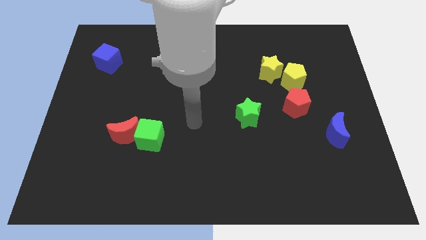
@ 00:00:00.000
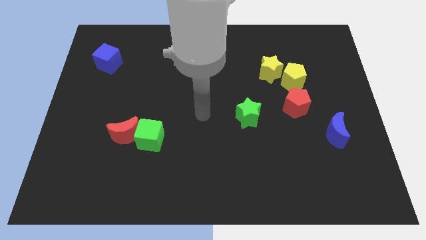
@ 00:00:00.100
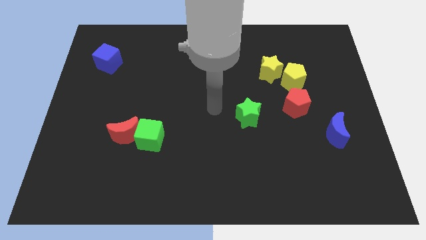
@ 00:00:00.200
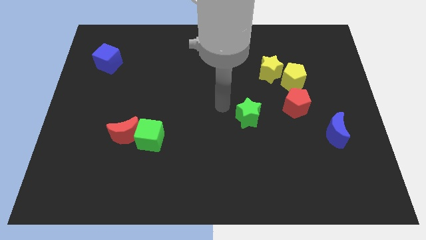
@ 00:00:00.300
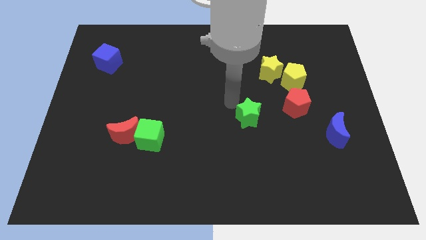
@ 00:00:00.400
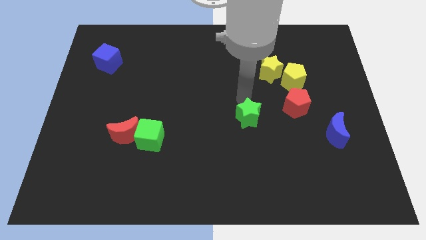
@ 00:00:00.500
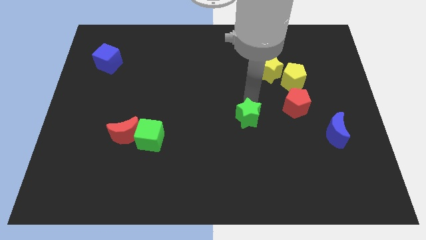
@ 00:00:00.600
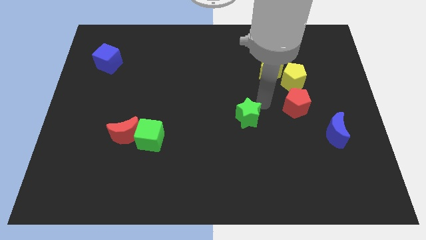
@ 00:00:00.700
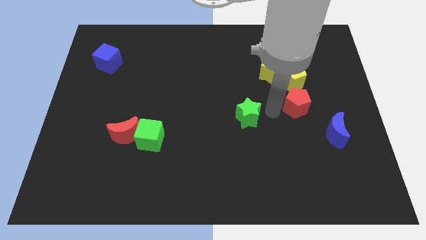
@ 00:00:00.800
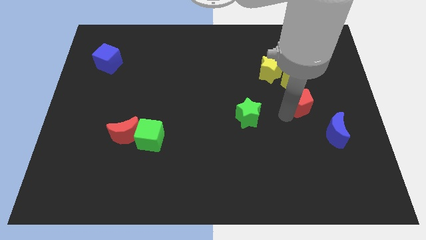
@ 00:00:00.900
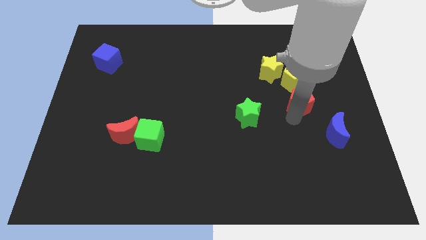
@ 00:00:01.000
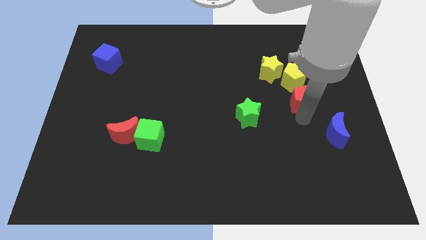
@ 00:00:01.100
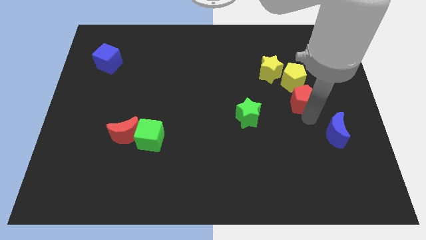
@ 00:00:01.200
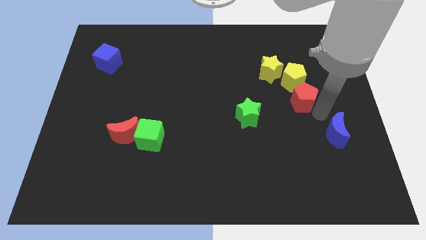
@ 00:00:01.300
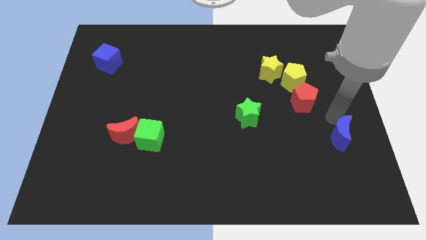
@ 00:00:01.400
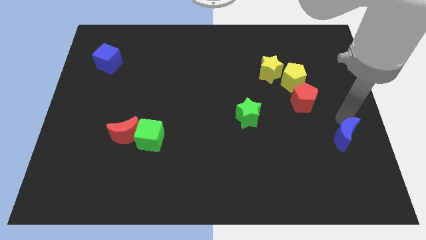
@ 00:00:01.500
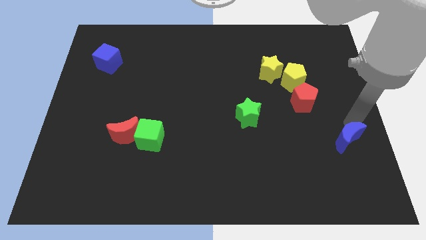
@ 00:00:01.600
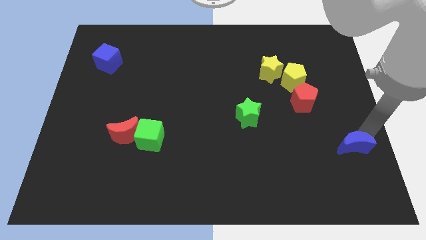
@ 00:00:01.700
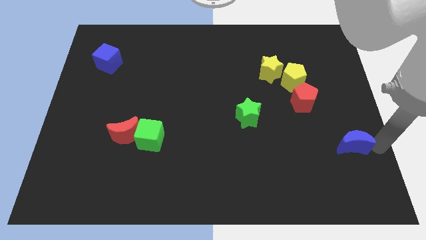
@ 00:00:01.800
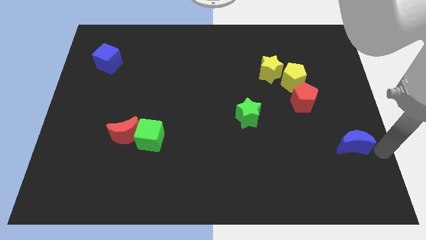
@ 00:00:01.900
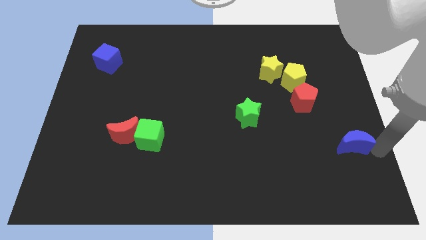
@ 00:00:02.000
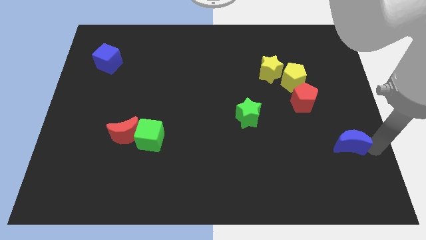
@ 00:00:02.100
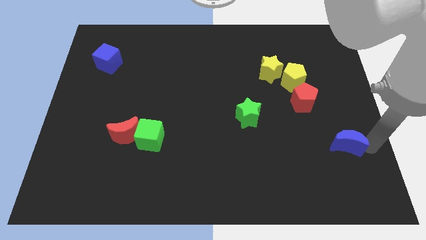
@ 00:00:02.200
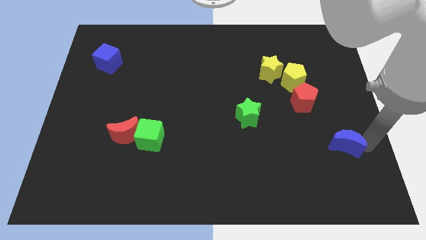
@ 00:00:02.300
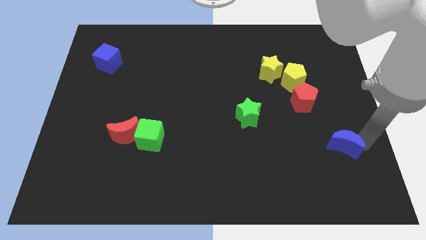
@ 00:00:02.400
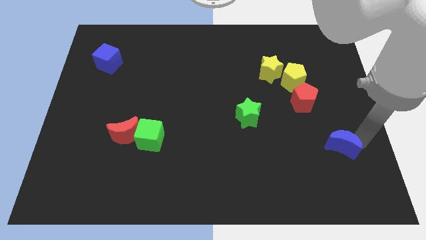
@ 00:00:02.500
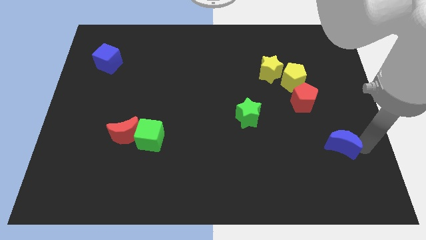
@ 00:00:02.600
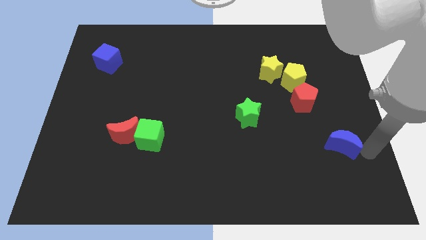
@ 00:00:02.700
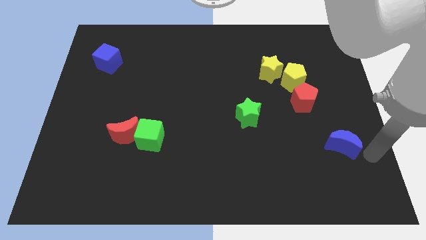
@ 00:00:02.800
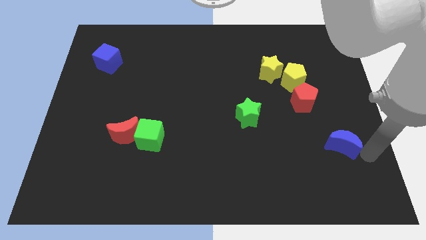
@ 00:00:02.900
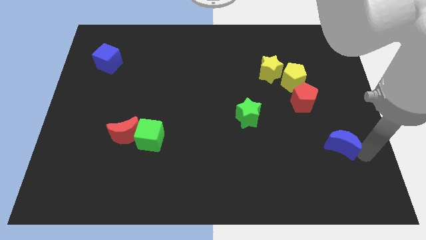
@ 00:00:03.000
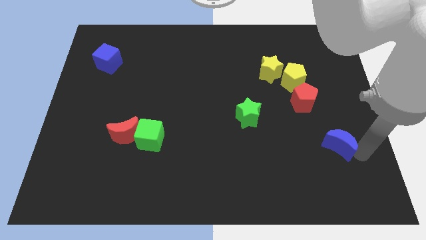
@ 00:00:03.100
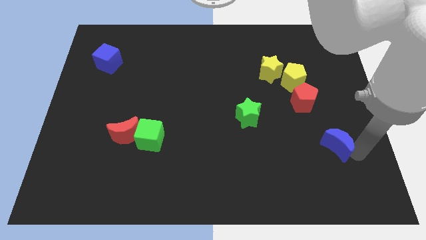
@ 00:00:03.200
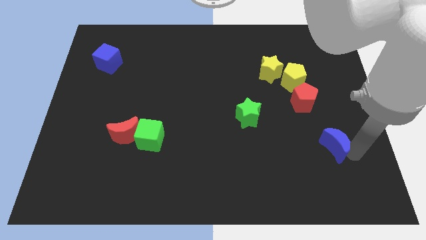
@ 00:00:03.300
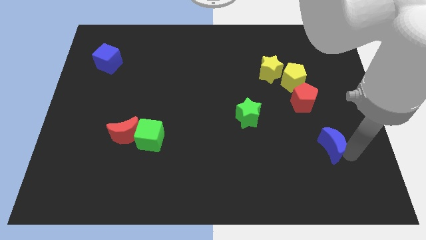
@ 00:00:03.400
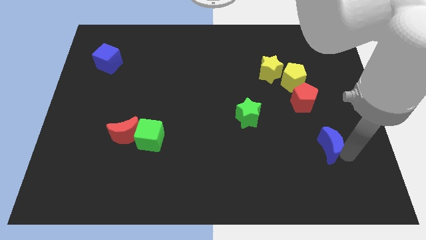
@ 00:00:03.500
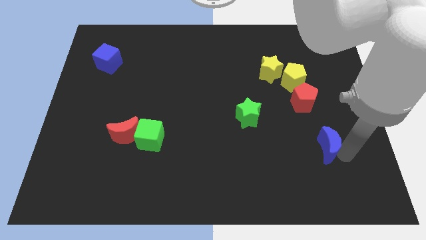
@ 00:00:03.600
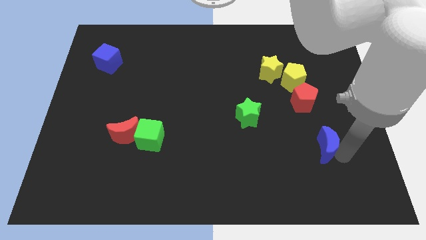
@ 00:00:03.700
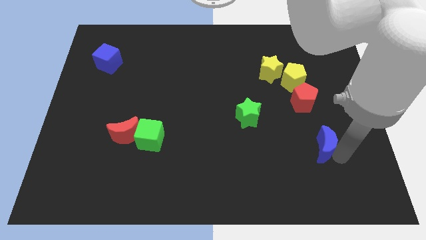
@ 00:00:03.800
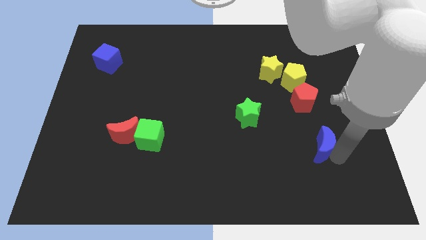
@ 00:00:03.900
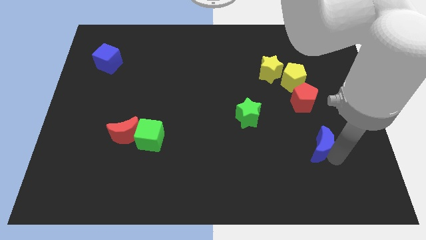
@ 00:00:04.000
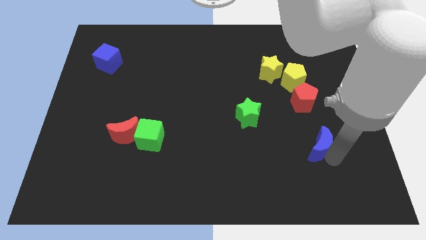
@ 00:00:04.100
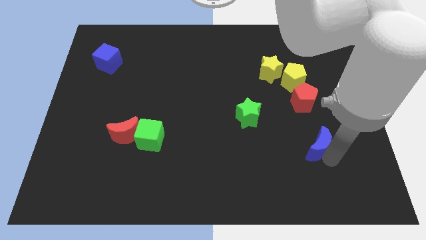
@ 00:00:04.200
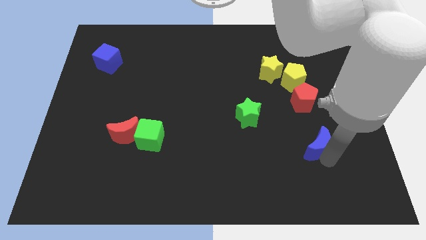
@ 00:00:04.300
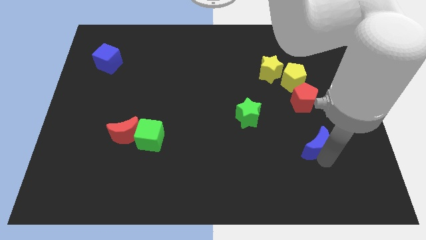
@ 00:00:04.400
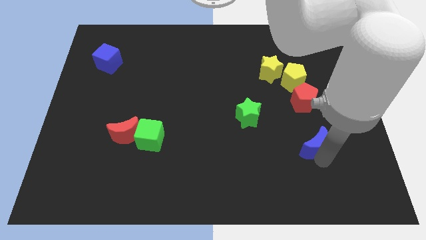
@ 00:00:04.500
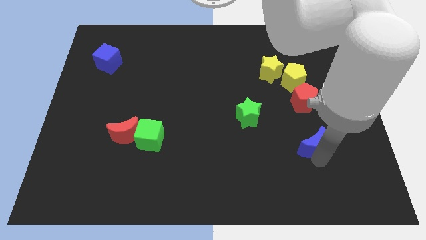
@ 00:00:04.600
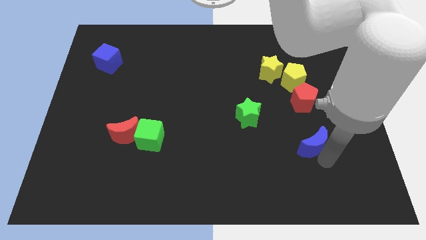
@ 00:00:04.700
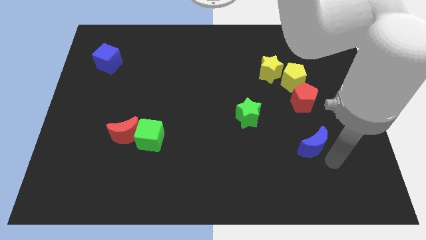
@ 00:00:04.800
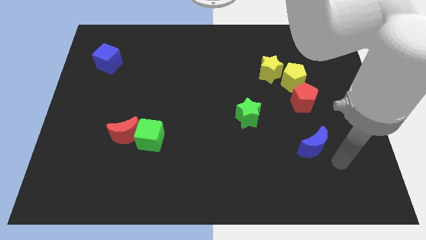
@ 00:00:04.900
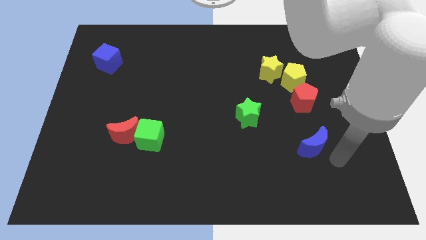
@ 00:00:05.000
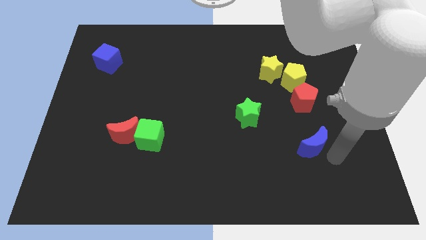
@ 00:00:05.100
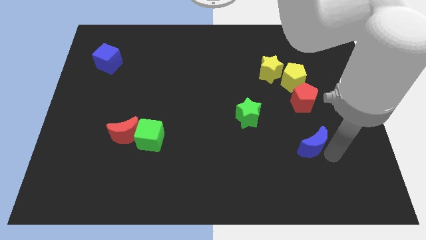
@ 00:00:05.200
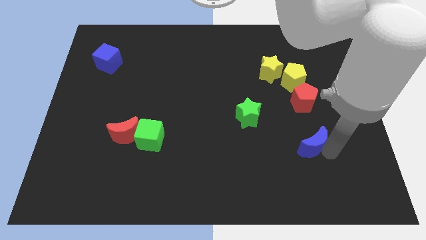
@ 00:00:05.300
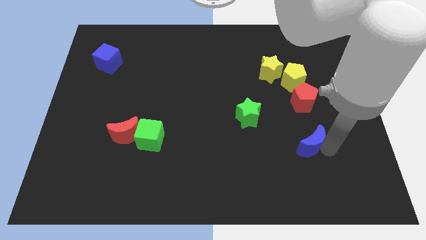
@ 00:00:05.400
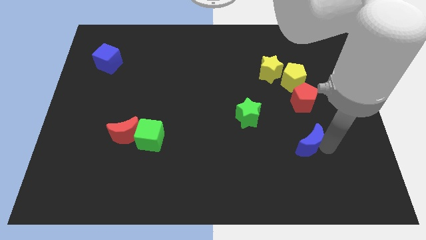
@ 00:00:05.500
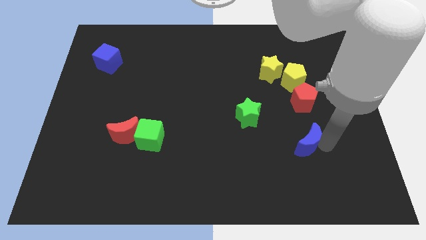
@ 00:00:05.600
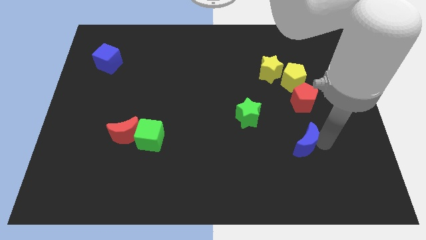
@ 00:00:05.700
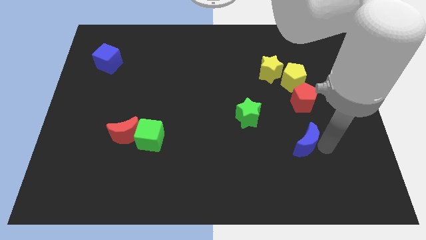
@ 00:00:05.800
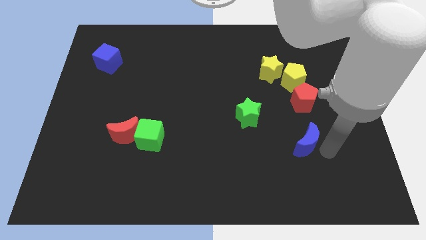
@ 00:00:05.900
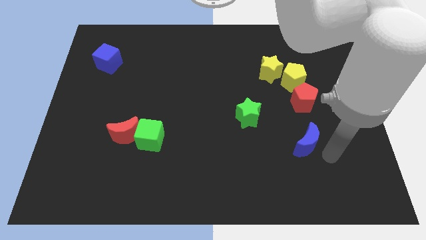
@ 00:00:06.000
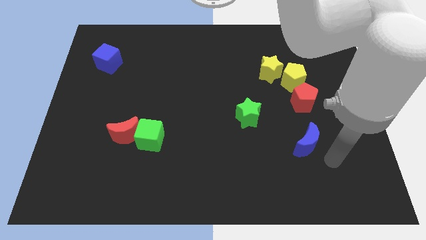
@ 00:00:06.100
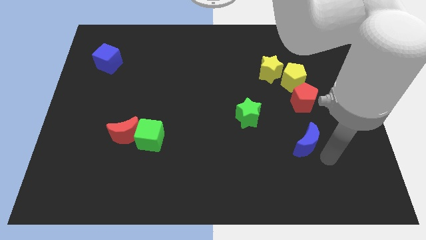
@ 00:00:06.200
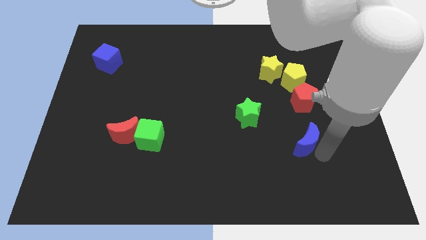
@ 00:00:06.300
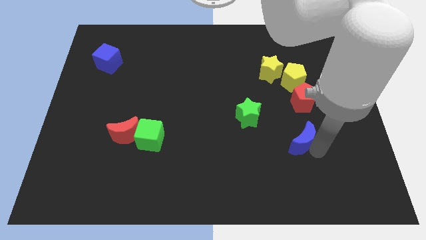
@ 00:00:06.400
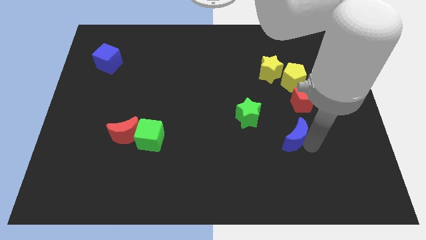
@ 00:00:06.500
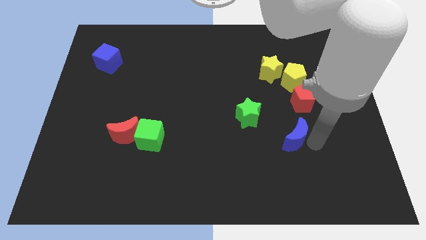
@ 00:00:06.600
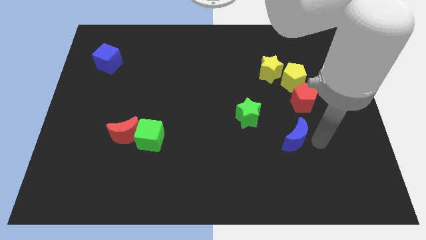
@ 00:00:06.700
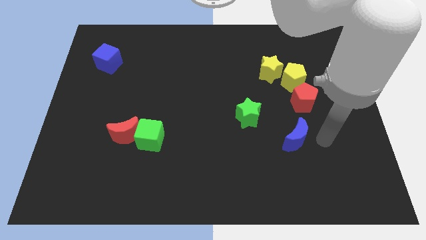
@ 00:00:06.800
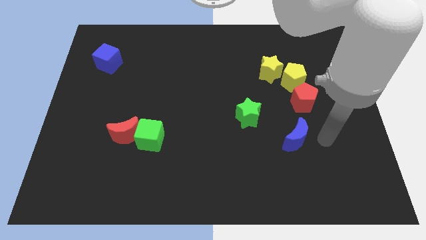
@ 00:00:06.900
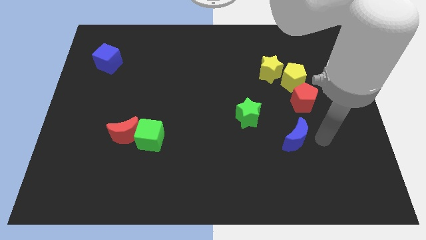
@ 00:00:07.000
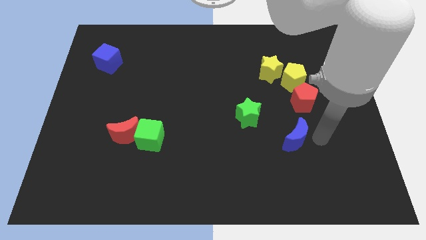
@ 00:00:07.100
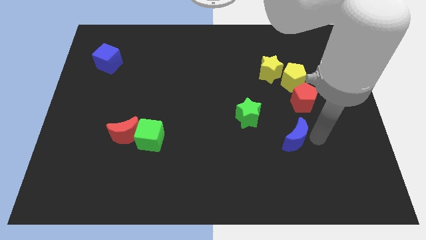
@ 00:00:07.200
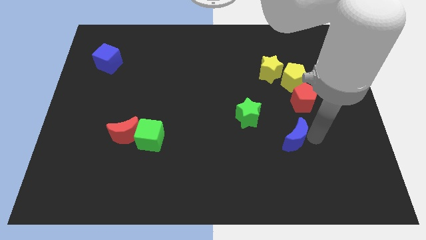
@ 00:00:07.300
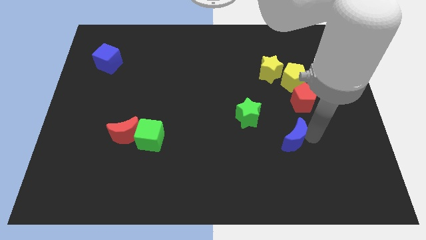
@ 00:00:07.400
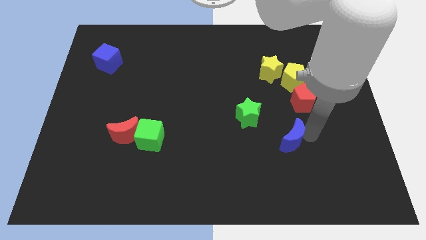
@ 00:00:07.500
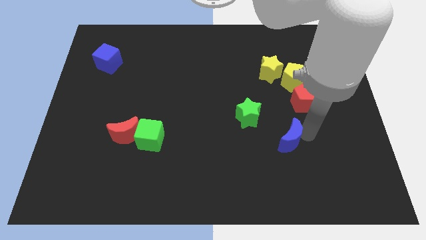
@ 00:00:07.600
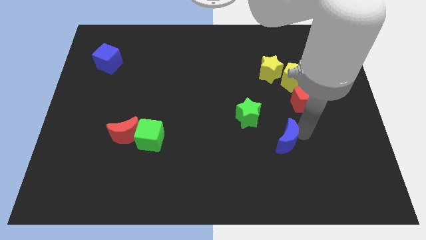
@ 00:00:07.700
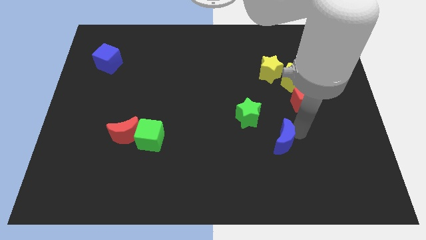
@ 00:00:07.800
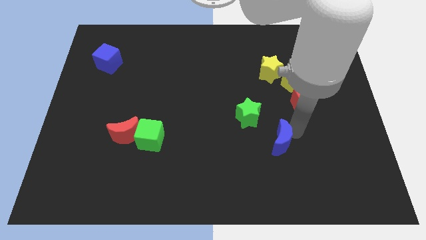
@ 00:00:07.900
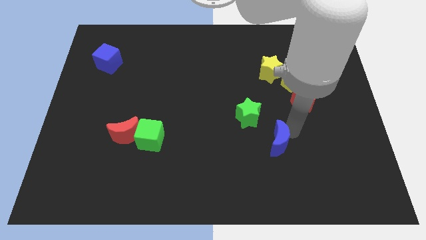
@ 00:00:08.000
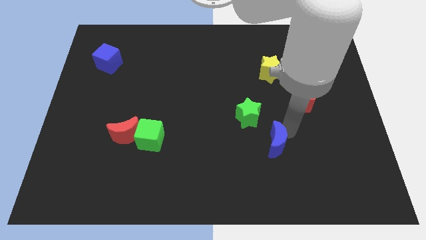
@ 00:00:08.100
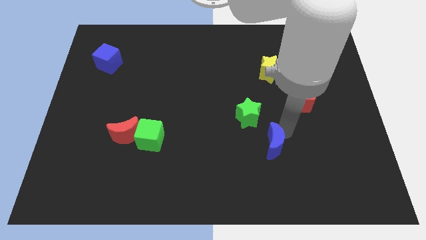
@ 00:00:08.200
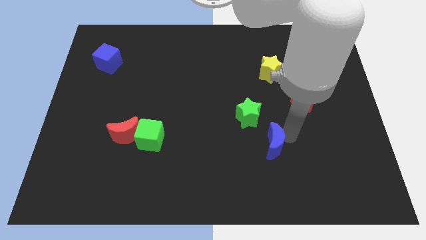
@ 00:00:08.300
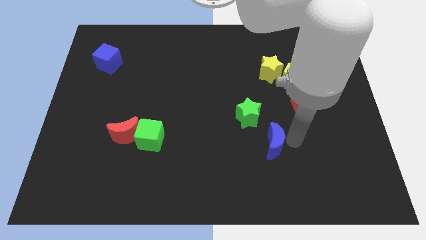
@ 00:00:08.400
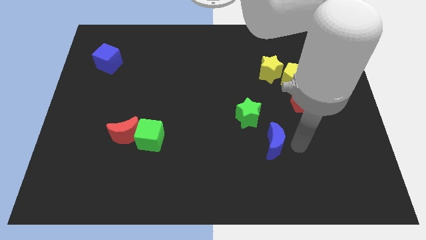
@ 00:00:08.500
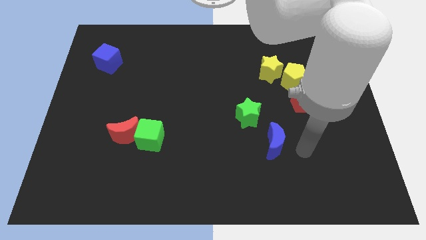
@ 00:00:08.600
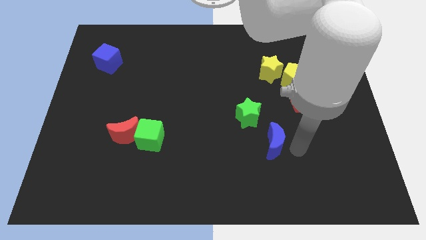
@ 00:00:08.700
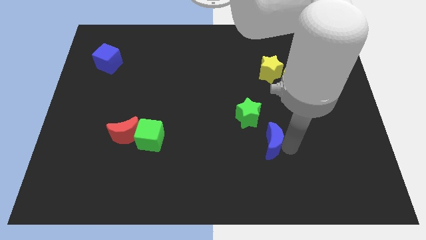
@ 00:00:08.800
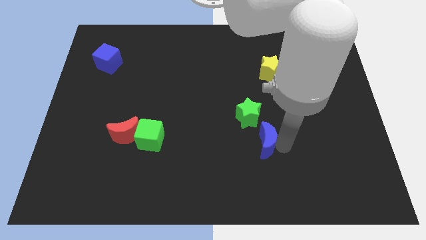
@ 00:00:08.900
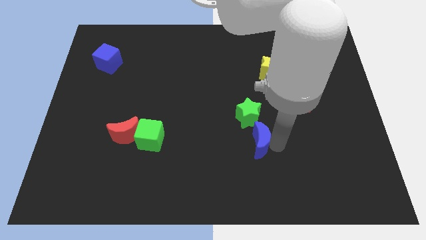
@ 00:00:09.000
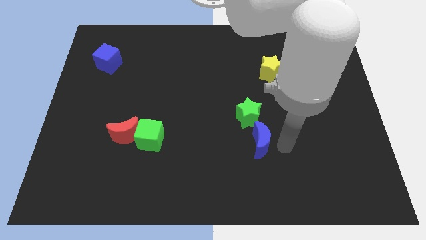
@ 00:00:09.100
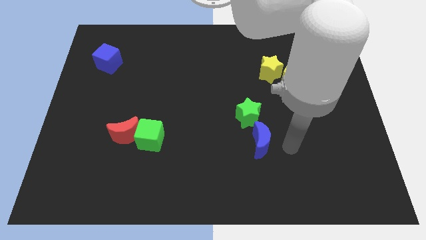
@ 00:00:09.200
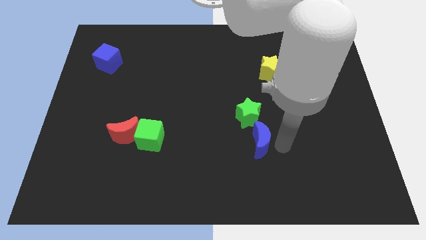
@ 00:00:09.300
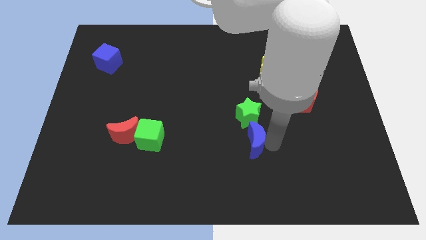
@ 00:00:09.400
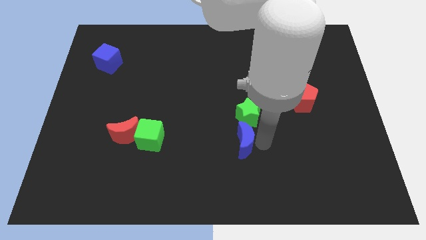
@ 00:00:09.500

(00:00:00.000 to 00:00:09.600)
push the blue moon left
